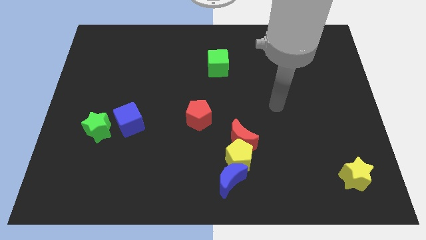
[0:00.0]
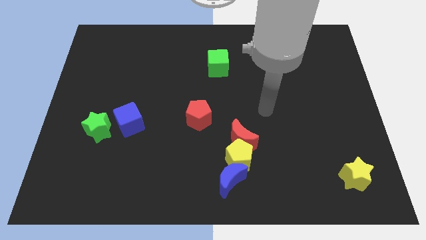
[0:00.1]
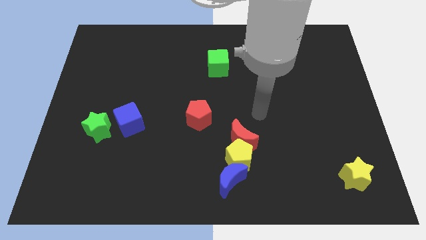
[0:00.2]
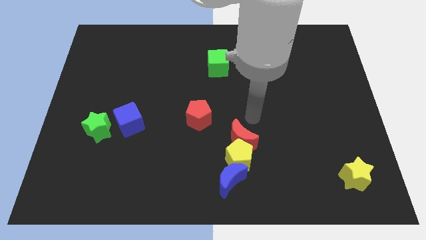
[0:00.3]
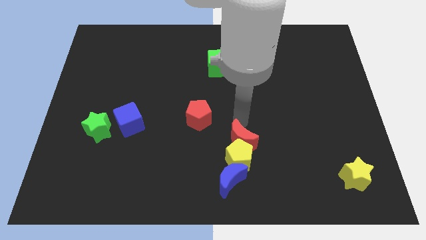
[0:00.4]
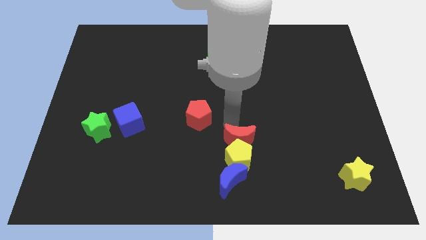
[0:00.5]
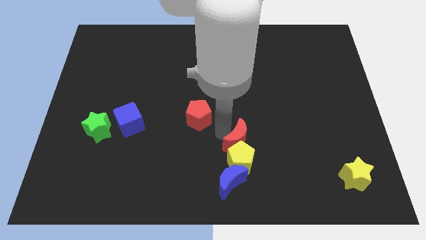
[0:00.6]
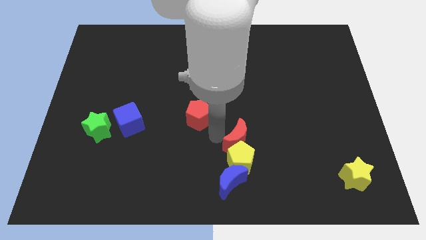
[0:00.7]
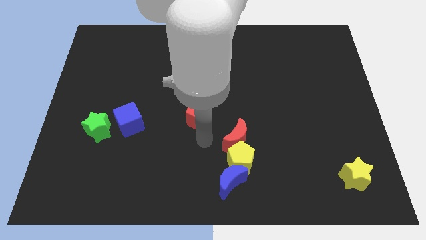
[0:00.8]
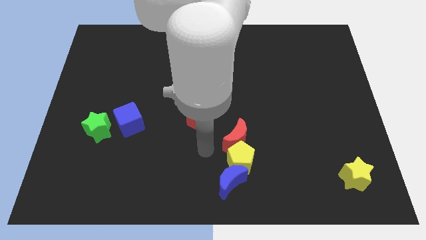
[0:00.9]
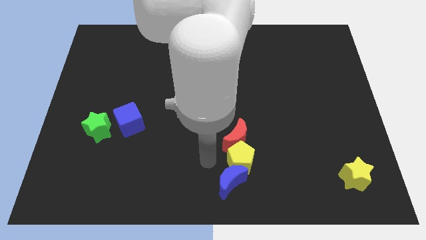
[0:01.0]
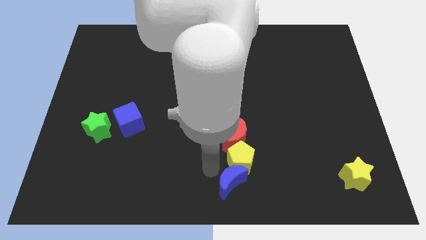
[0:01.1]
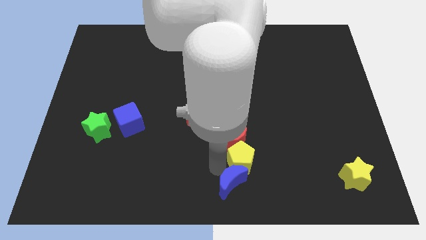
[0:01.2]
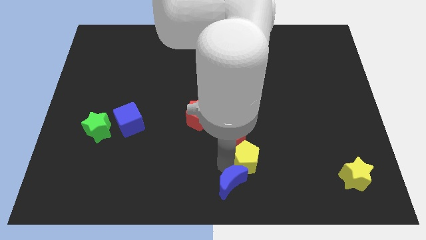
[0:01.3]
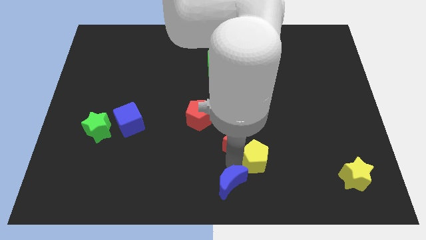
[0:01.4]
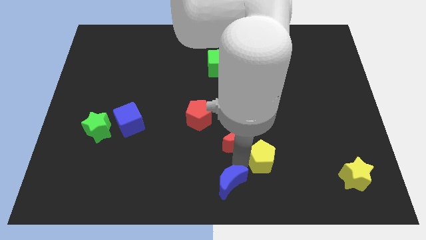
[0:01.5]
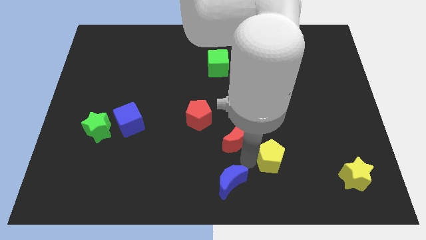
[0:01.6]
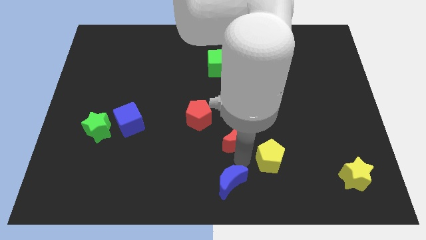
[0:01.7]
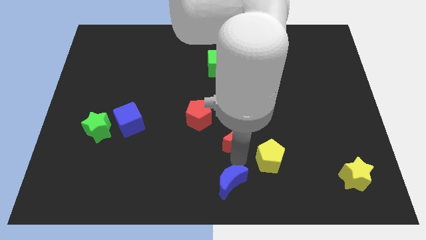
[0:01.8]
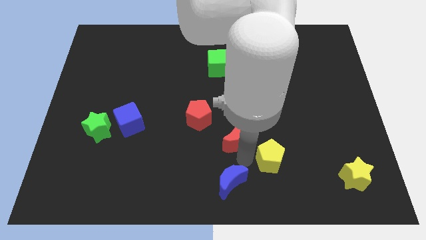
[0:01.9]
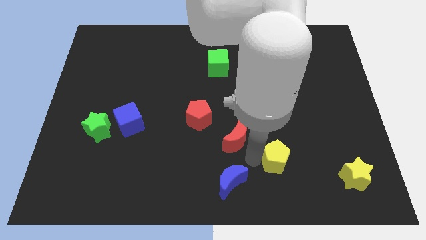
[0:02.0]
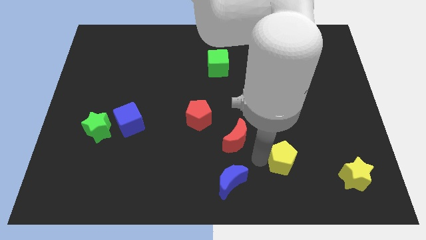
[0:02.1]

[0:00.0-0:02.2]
separate the yellow pentagon from the red moon and blue moon

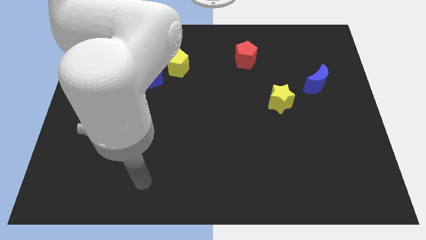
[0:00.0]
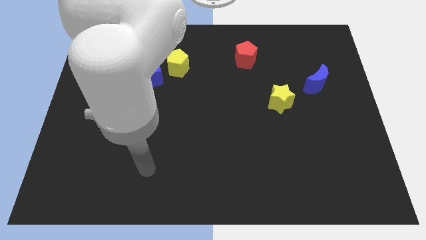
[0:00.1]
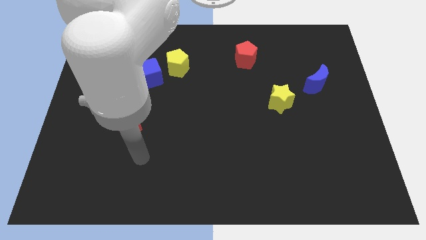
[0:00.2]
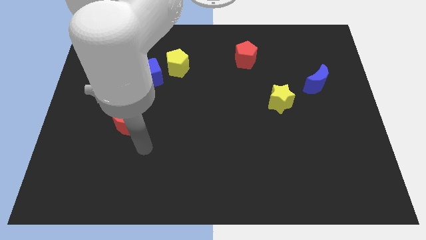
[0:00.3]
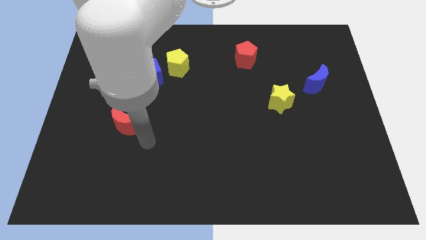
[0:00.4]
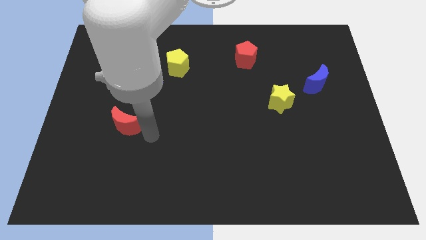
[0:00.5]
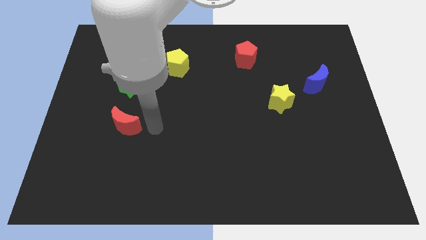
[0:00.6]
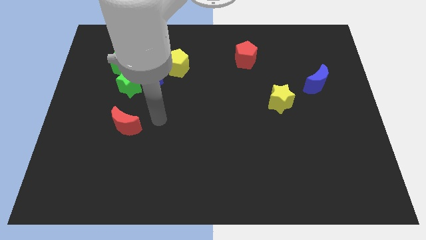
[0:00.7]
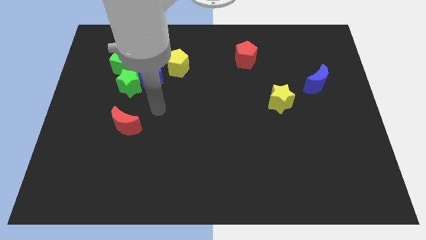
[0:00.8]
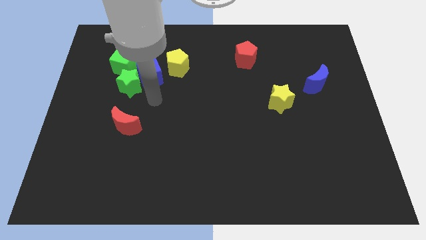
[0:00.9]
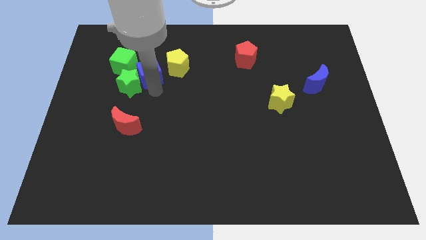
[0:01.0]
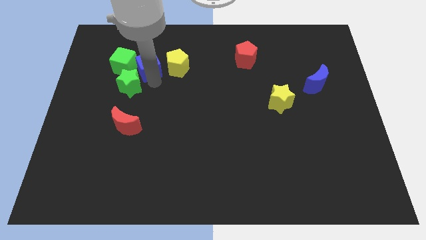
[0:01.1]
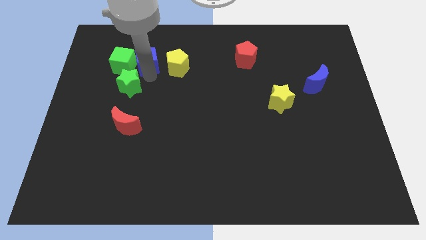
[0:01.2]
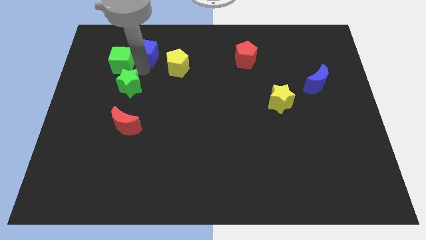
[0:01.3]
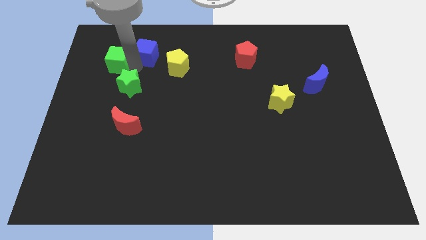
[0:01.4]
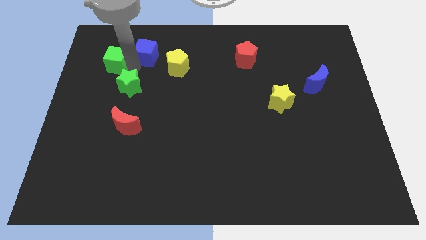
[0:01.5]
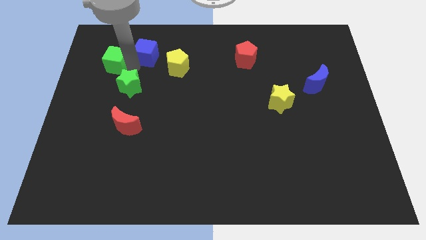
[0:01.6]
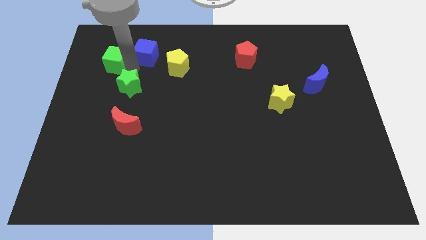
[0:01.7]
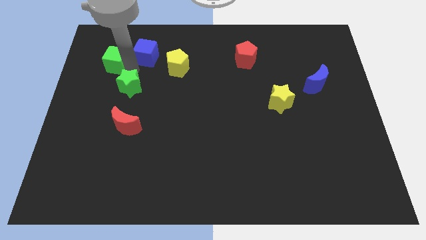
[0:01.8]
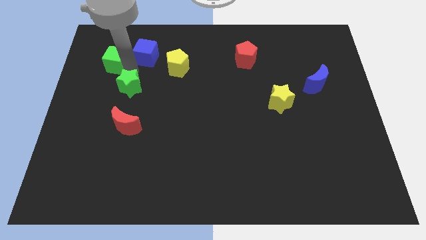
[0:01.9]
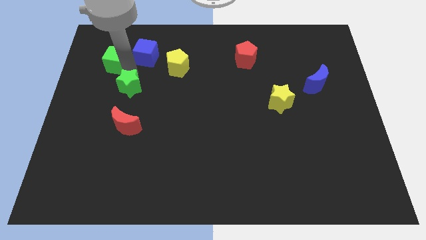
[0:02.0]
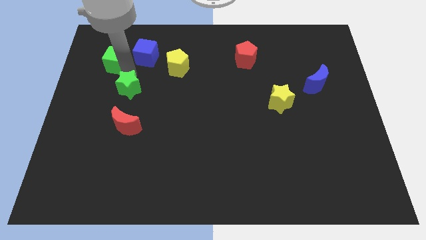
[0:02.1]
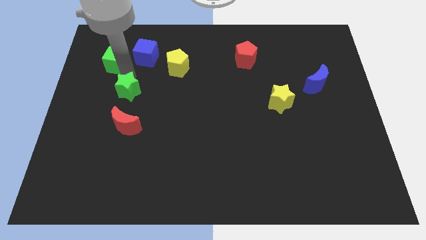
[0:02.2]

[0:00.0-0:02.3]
move the green star away from the blue cube and green cube

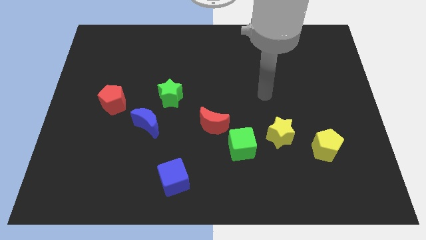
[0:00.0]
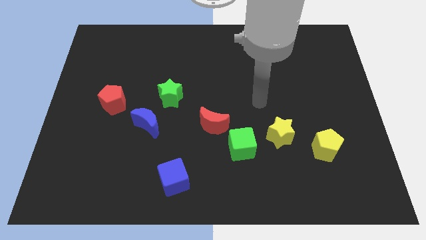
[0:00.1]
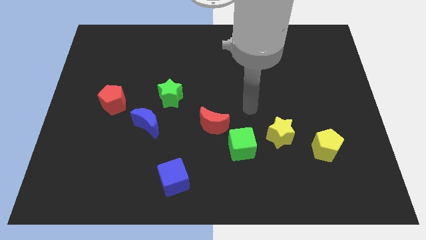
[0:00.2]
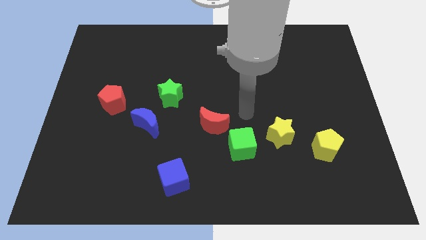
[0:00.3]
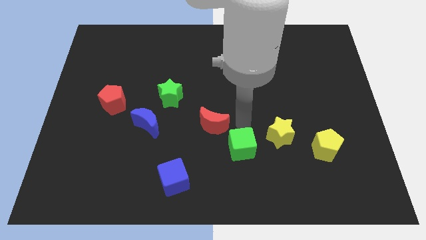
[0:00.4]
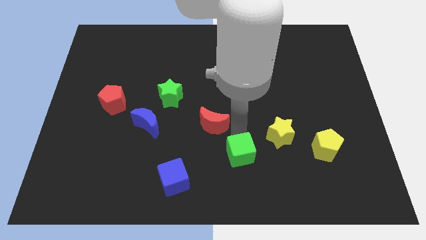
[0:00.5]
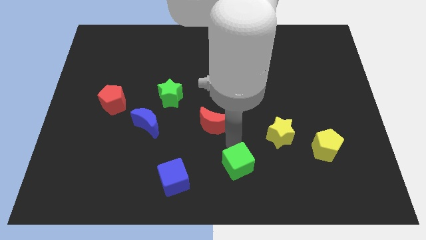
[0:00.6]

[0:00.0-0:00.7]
pull the red moon apart from the green cube

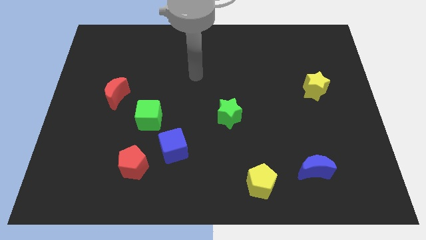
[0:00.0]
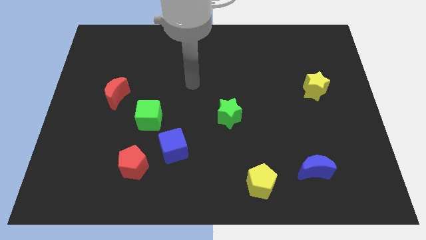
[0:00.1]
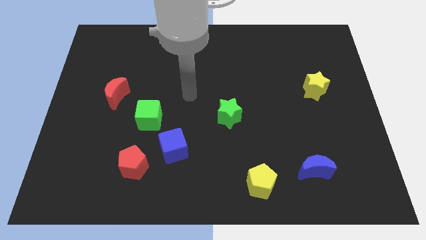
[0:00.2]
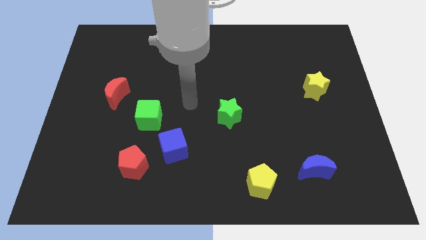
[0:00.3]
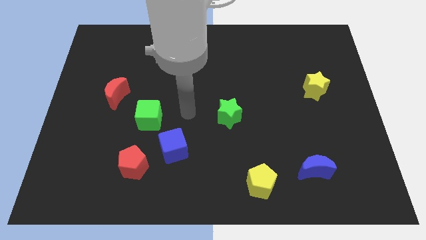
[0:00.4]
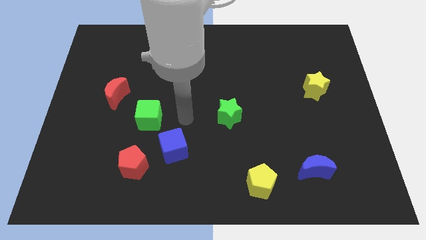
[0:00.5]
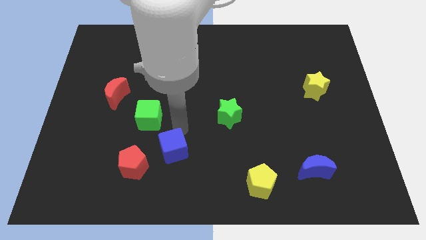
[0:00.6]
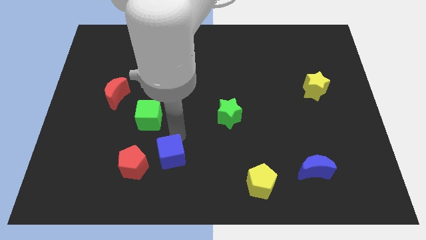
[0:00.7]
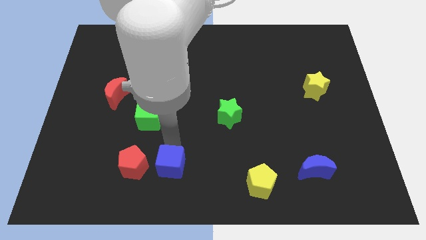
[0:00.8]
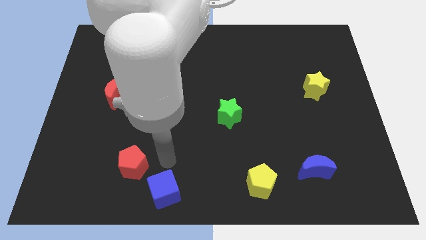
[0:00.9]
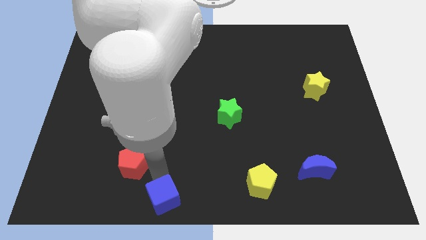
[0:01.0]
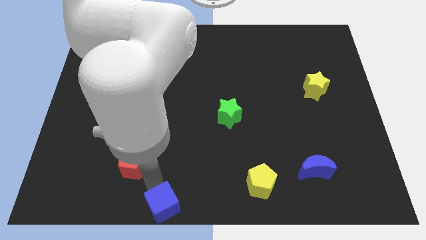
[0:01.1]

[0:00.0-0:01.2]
pull the red pentagon apart from the blue cube

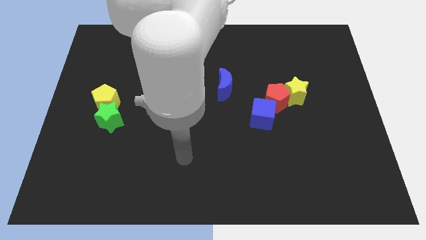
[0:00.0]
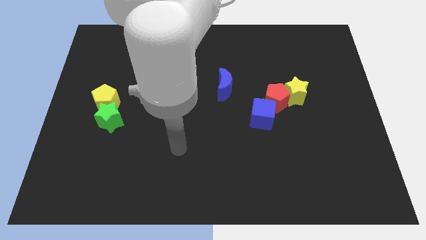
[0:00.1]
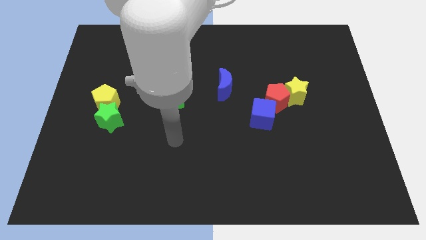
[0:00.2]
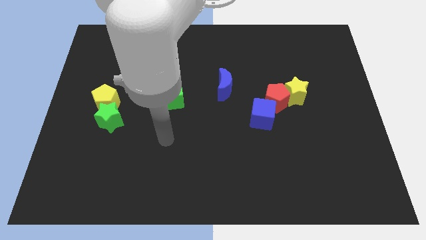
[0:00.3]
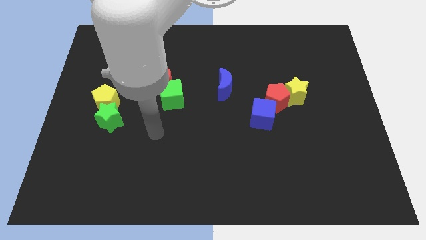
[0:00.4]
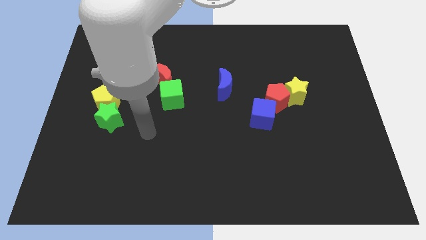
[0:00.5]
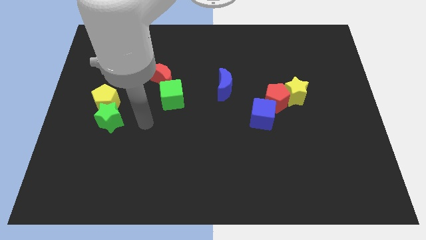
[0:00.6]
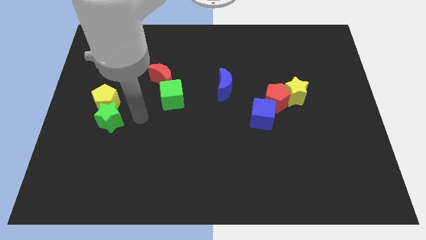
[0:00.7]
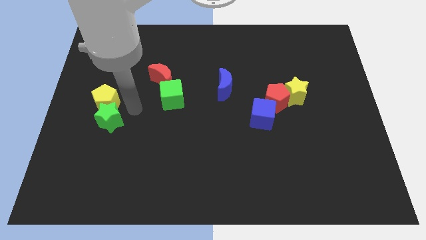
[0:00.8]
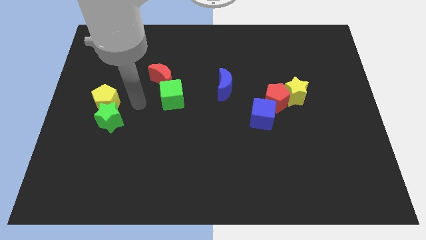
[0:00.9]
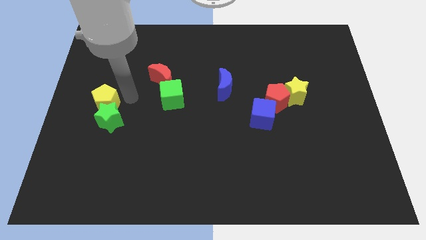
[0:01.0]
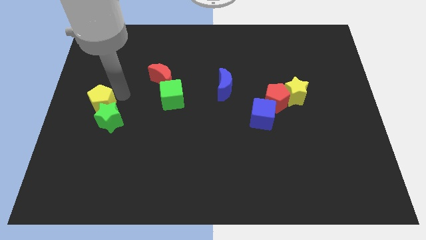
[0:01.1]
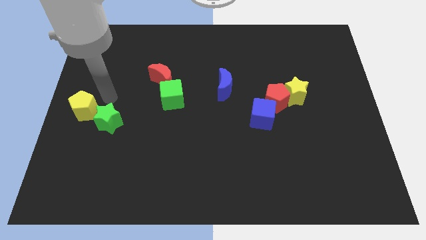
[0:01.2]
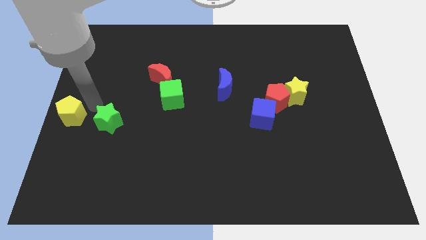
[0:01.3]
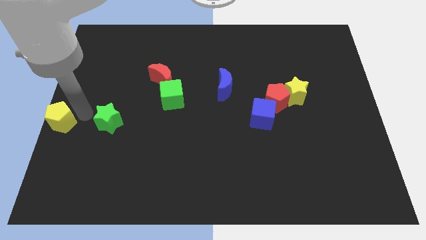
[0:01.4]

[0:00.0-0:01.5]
pull the green star apart from the yellow pentagon

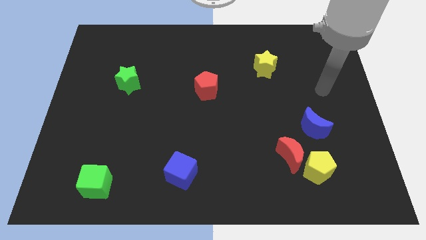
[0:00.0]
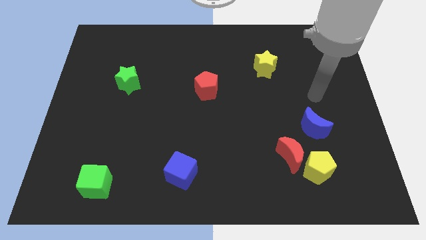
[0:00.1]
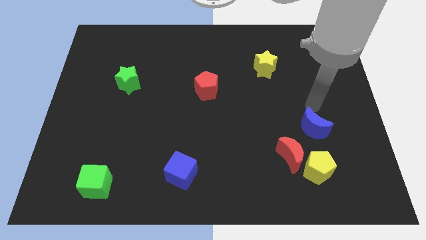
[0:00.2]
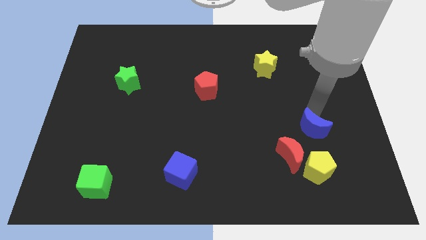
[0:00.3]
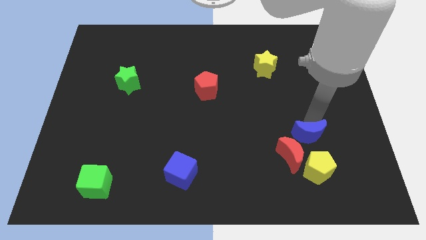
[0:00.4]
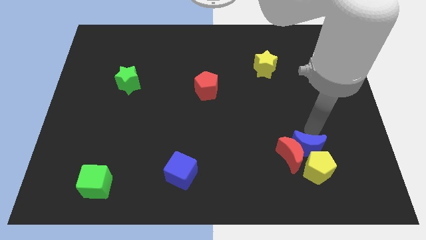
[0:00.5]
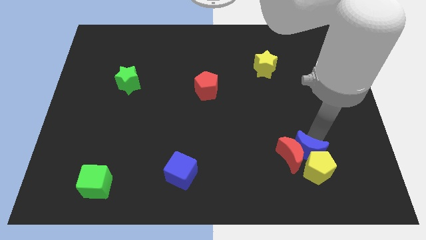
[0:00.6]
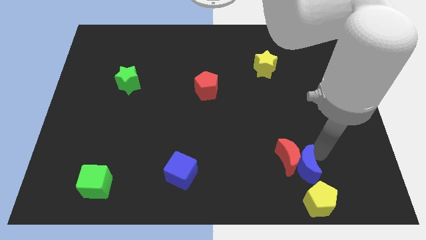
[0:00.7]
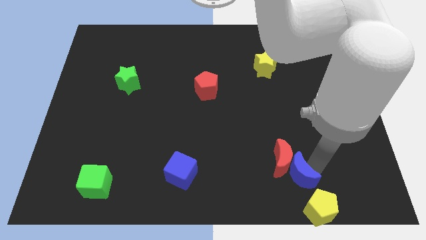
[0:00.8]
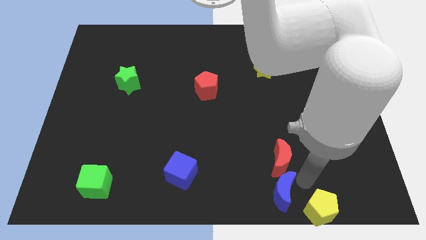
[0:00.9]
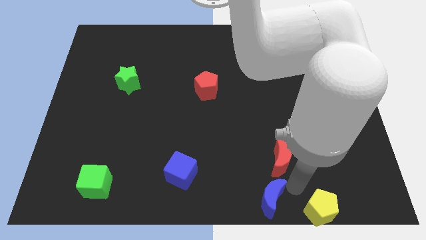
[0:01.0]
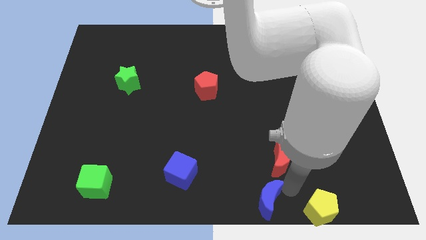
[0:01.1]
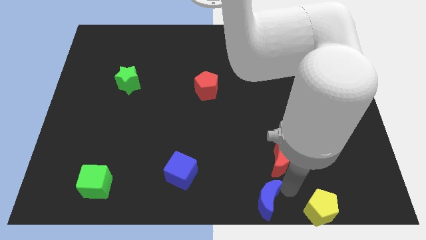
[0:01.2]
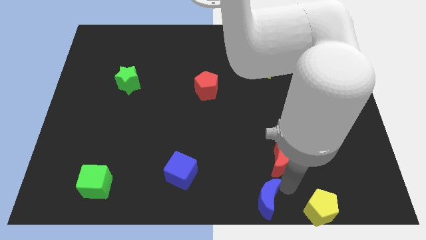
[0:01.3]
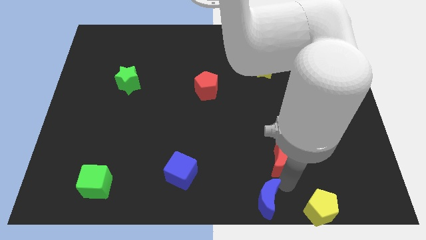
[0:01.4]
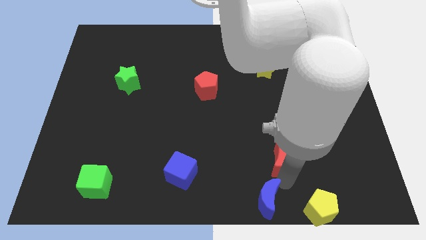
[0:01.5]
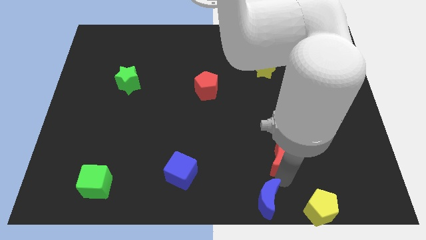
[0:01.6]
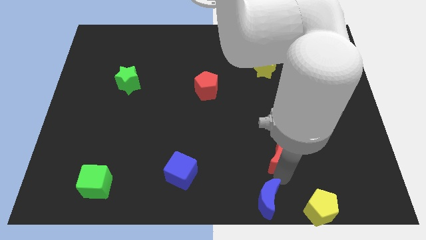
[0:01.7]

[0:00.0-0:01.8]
separate the red moon from the yellow pentagon and blue moon
